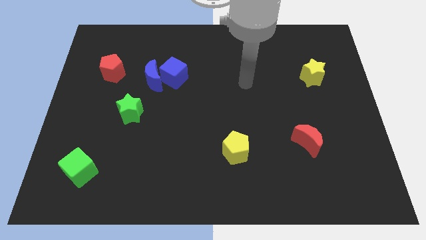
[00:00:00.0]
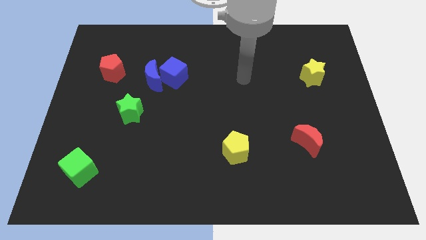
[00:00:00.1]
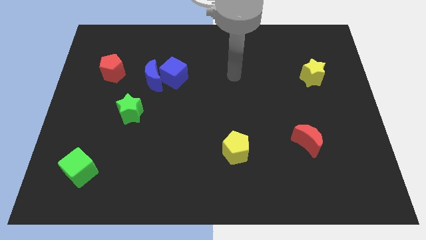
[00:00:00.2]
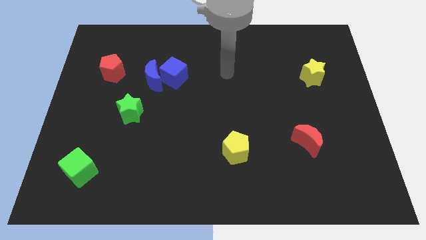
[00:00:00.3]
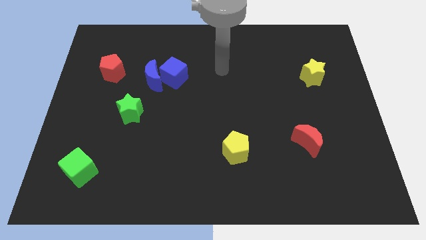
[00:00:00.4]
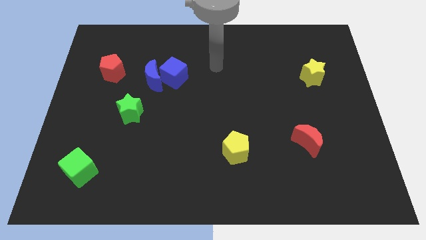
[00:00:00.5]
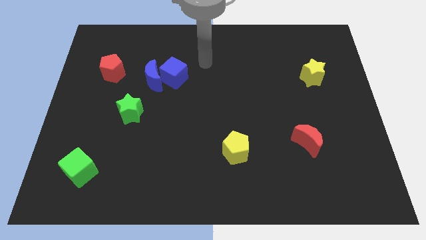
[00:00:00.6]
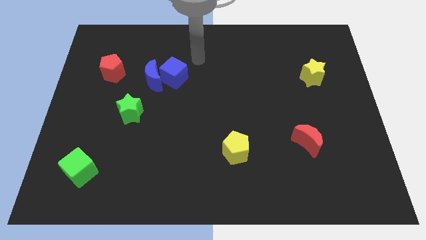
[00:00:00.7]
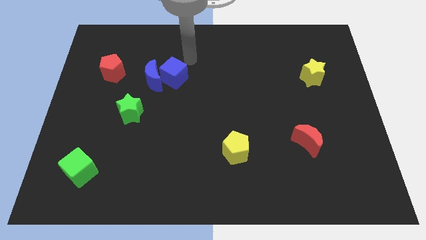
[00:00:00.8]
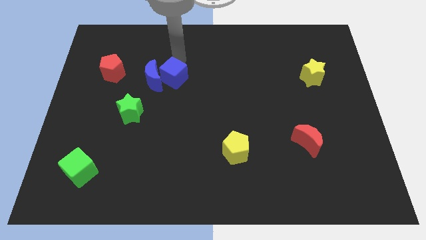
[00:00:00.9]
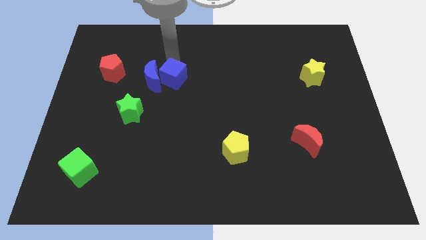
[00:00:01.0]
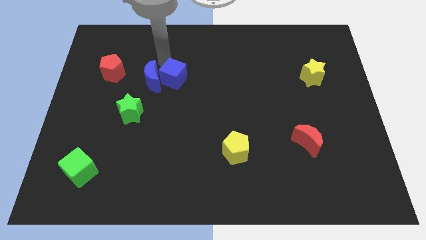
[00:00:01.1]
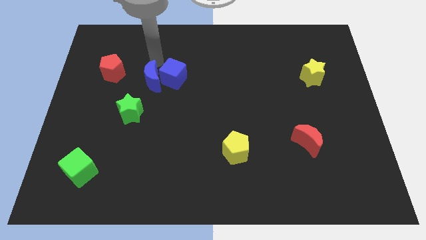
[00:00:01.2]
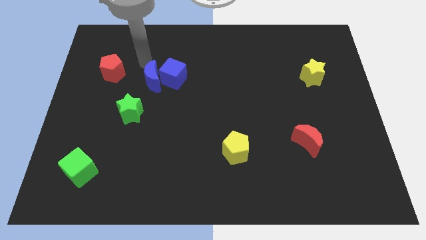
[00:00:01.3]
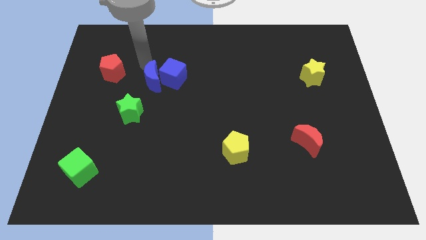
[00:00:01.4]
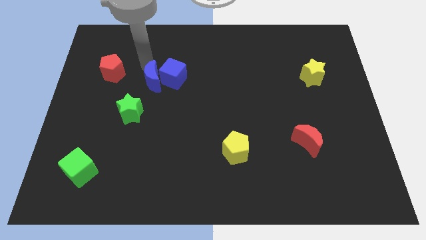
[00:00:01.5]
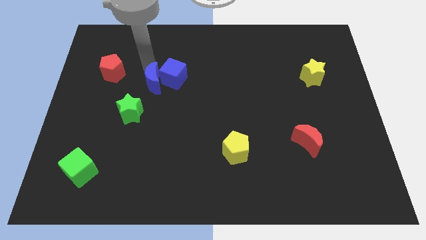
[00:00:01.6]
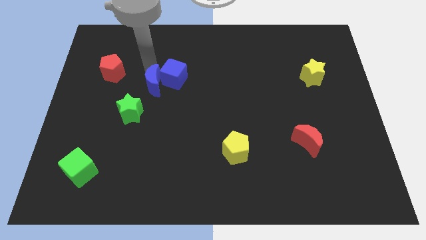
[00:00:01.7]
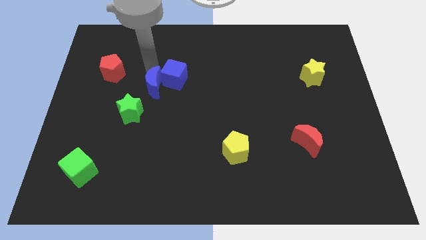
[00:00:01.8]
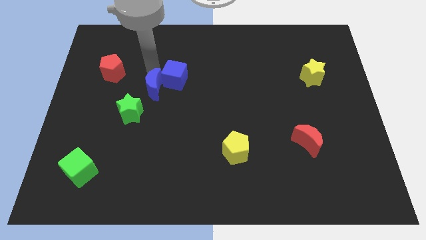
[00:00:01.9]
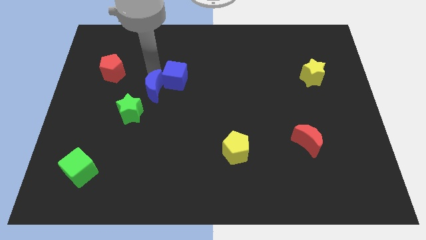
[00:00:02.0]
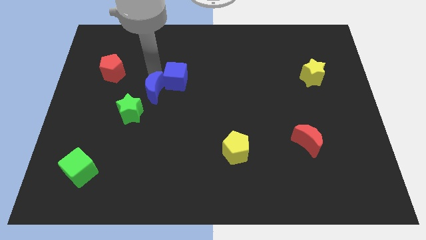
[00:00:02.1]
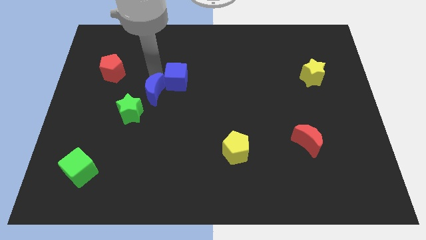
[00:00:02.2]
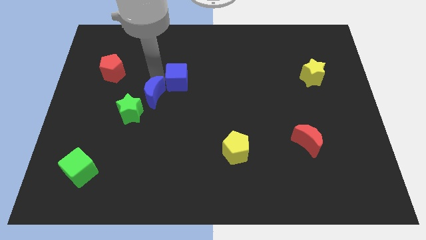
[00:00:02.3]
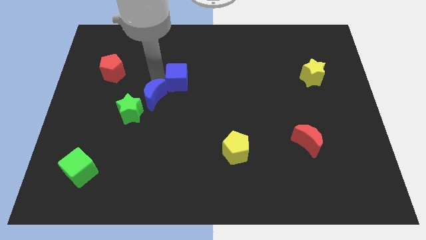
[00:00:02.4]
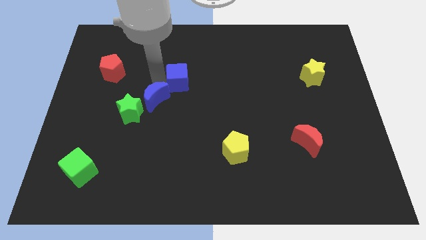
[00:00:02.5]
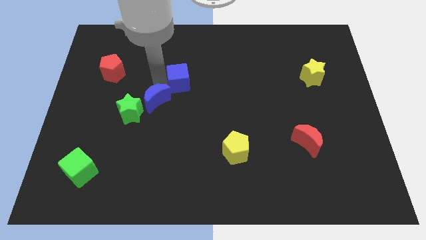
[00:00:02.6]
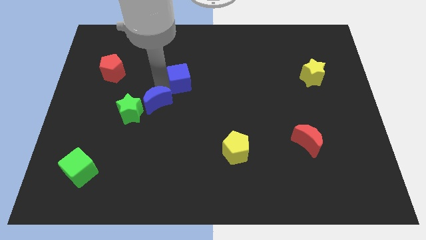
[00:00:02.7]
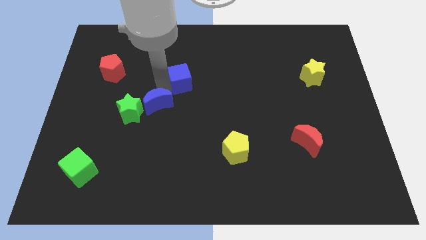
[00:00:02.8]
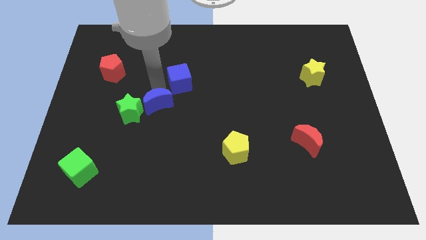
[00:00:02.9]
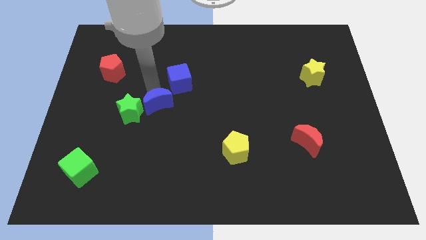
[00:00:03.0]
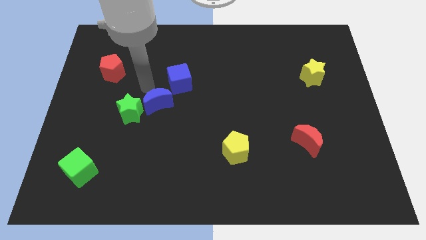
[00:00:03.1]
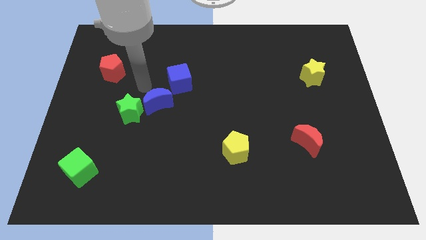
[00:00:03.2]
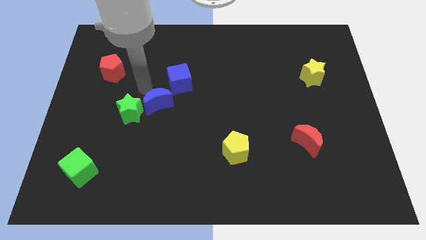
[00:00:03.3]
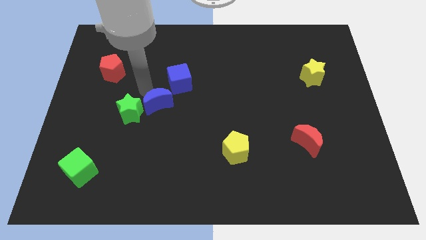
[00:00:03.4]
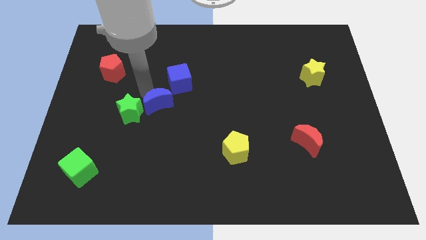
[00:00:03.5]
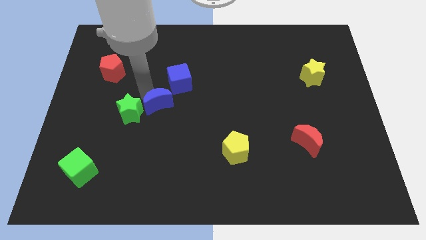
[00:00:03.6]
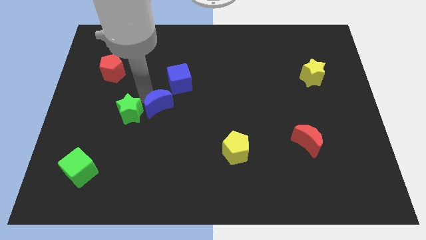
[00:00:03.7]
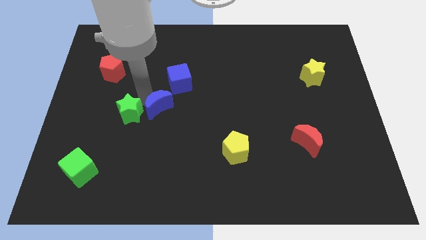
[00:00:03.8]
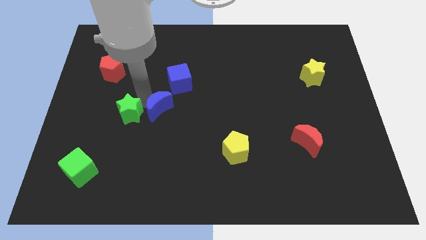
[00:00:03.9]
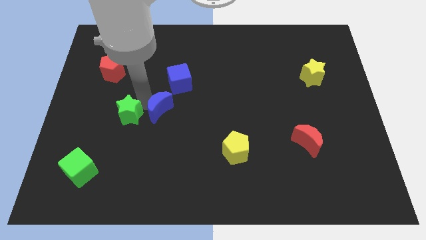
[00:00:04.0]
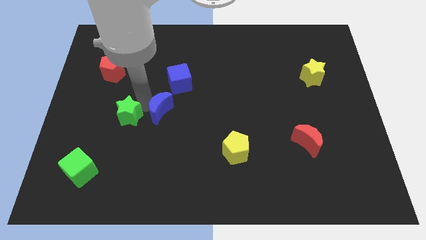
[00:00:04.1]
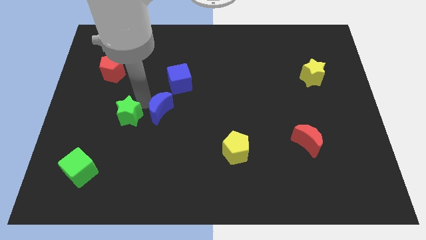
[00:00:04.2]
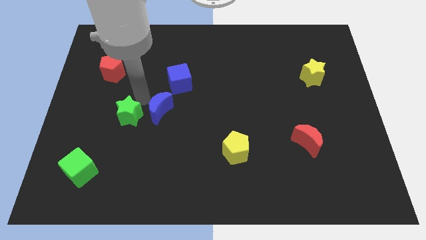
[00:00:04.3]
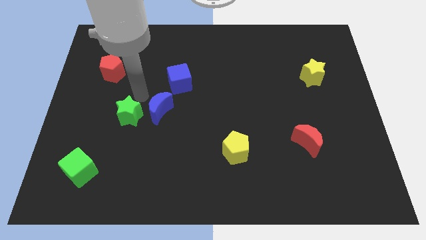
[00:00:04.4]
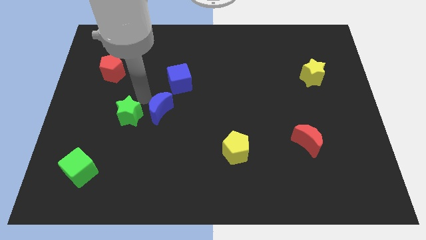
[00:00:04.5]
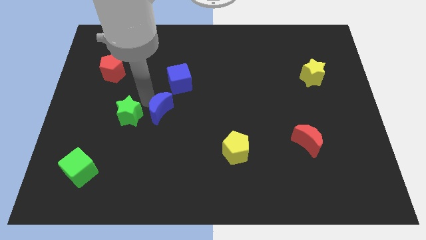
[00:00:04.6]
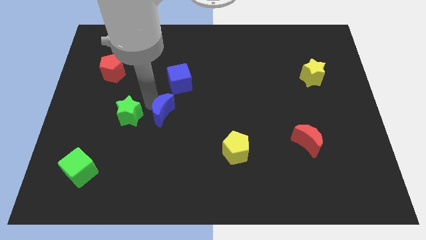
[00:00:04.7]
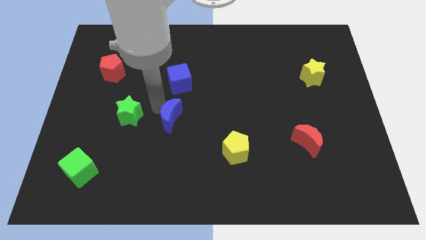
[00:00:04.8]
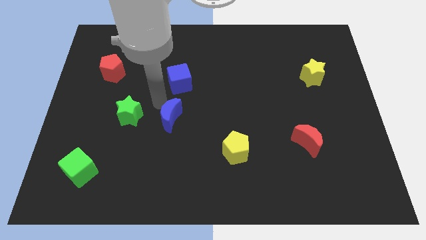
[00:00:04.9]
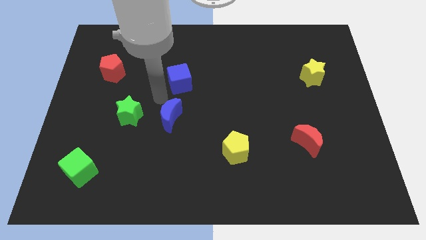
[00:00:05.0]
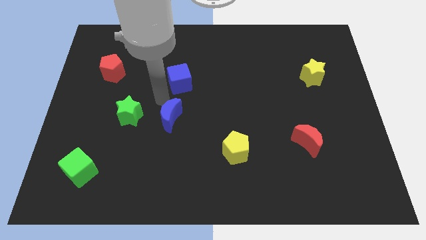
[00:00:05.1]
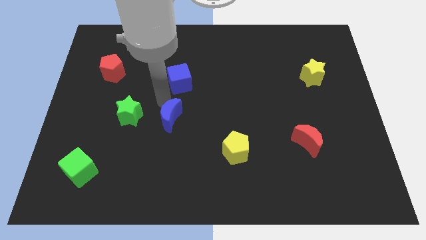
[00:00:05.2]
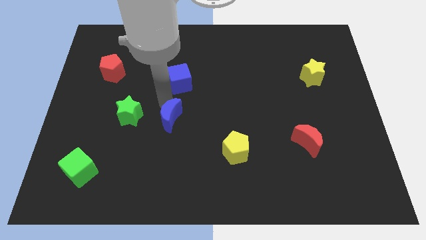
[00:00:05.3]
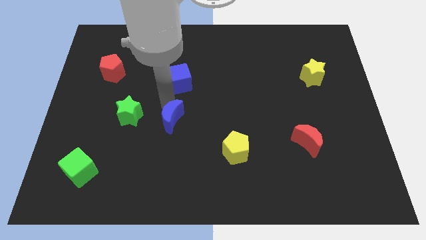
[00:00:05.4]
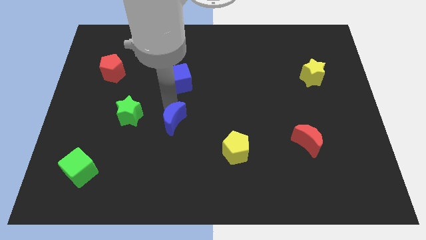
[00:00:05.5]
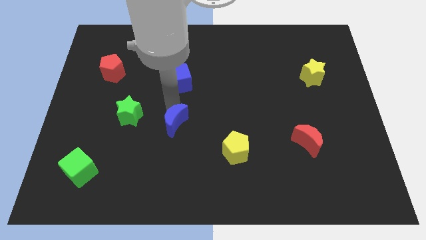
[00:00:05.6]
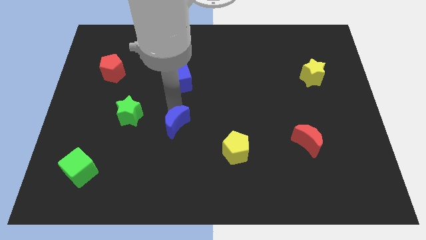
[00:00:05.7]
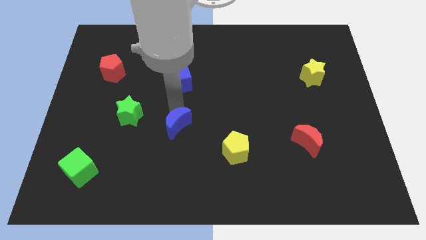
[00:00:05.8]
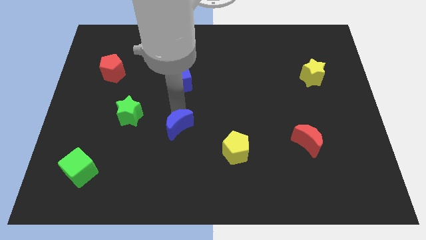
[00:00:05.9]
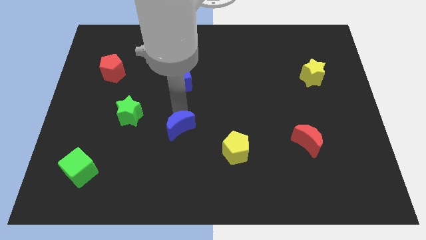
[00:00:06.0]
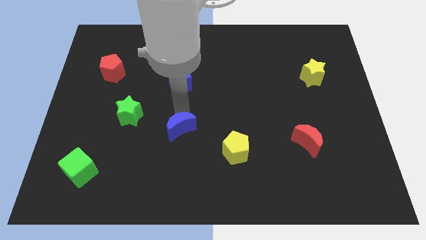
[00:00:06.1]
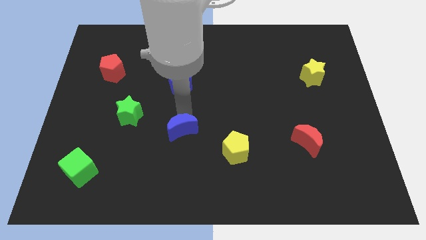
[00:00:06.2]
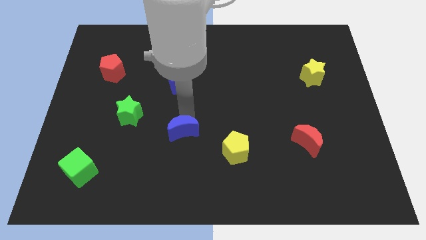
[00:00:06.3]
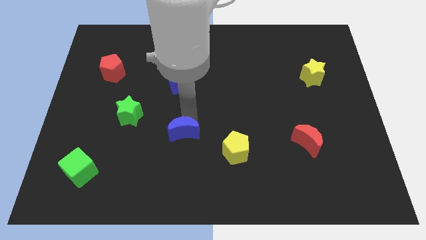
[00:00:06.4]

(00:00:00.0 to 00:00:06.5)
put the blue moon left of the yellow pentagon

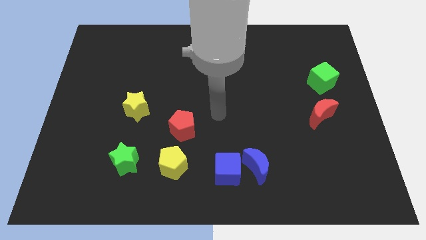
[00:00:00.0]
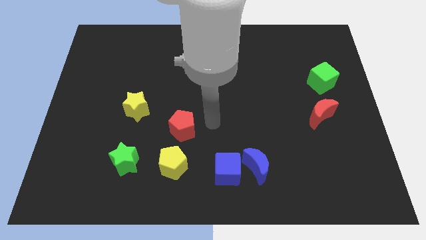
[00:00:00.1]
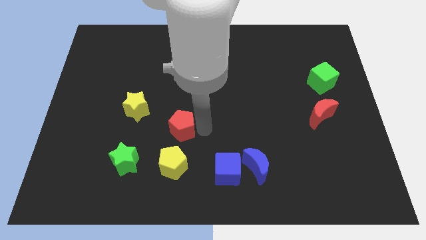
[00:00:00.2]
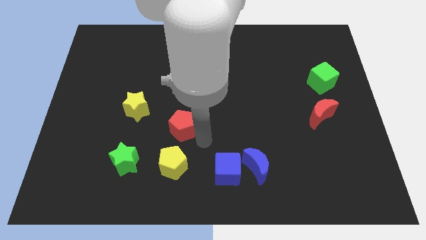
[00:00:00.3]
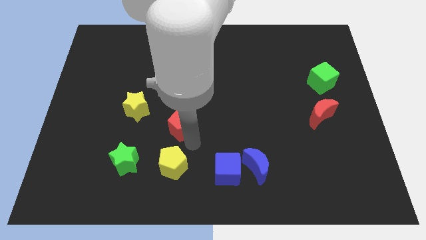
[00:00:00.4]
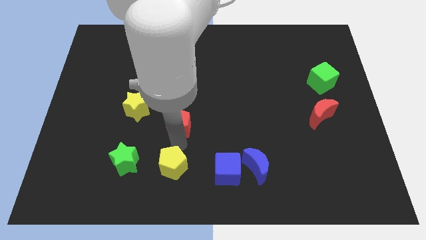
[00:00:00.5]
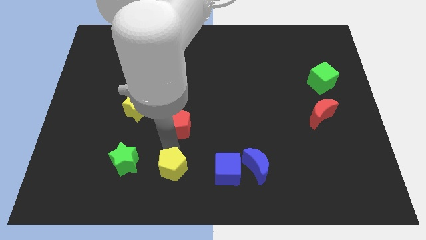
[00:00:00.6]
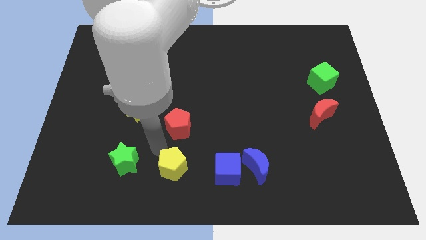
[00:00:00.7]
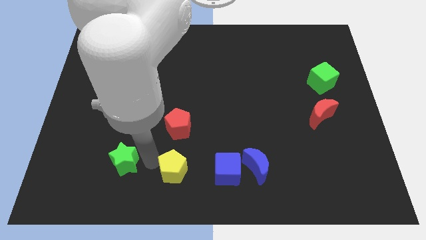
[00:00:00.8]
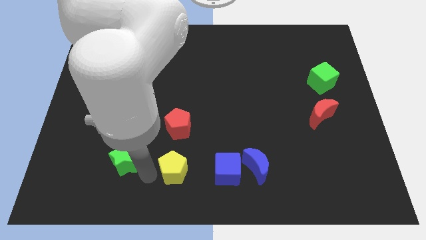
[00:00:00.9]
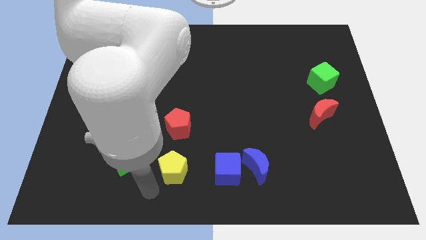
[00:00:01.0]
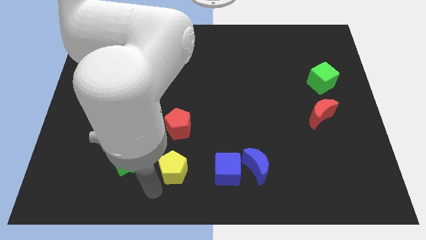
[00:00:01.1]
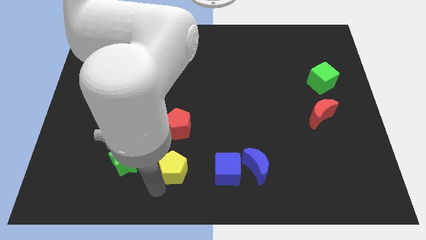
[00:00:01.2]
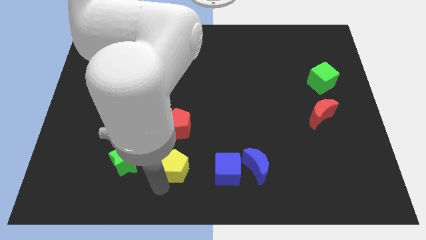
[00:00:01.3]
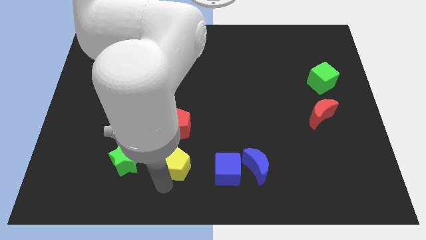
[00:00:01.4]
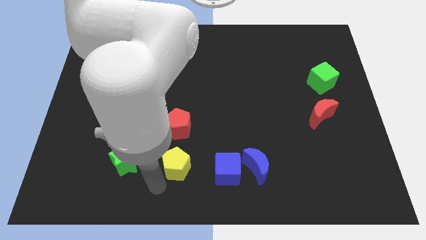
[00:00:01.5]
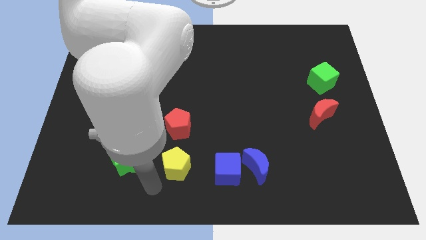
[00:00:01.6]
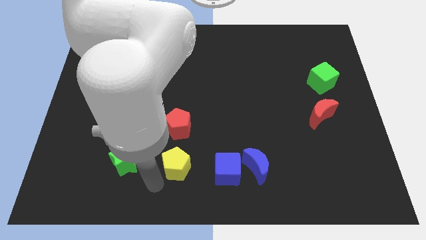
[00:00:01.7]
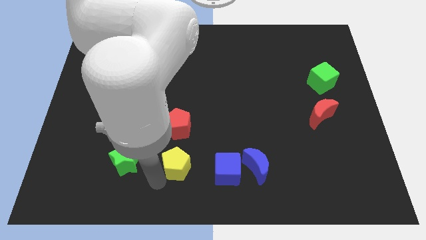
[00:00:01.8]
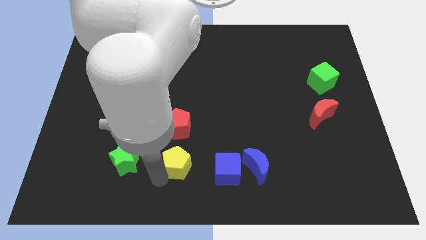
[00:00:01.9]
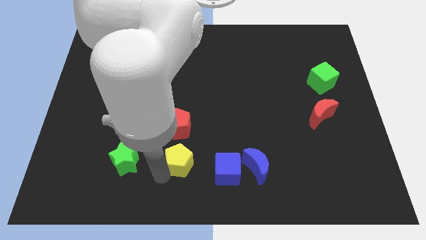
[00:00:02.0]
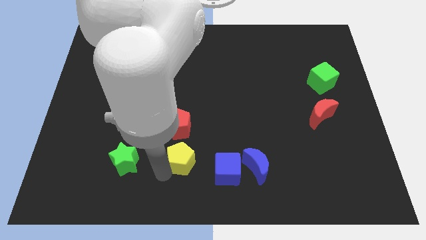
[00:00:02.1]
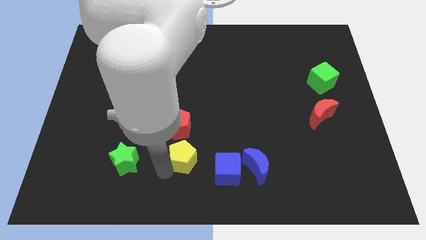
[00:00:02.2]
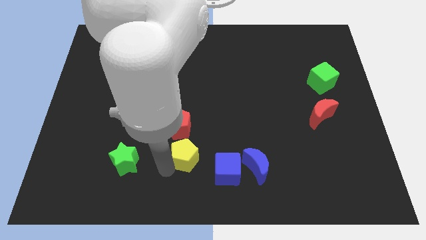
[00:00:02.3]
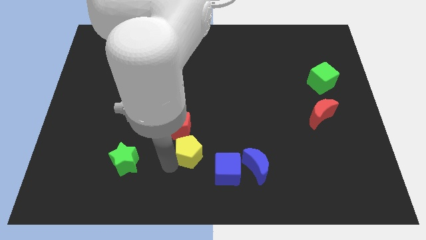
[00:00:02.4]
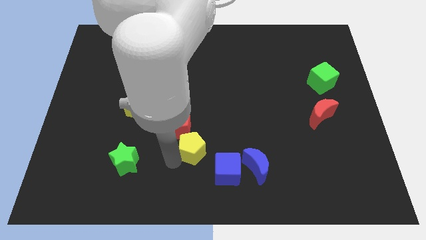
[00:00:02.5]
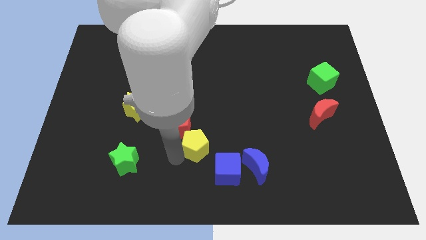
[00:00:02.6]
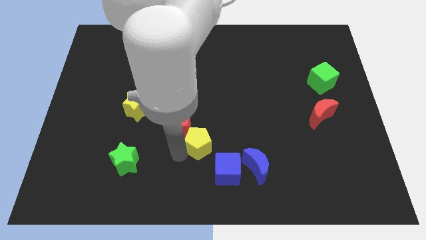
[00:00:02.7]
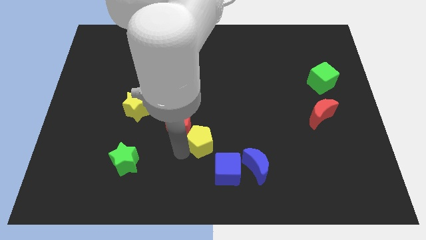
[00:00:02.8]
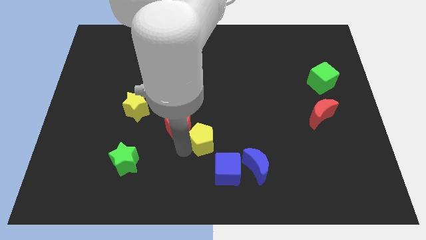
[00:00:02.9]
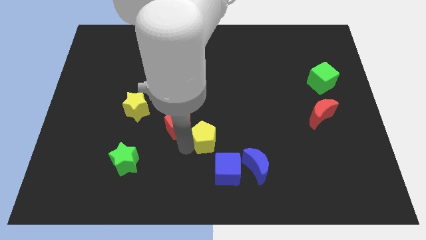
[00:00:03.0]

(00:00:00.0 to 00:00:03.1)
push the yellow pentagon to the top of the blue cube
